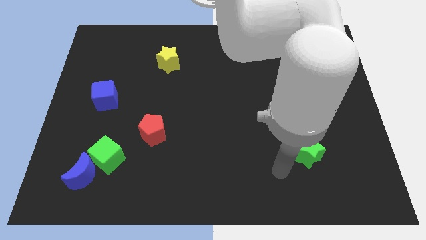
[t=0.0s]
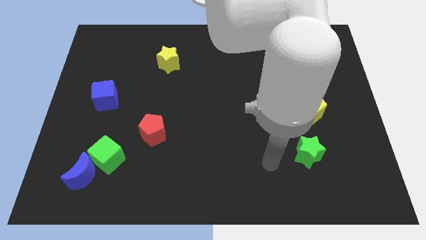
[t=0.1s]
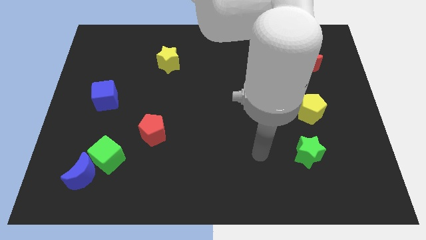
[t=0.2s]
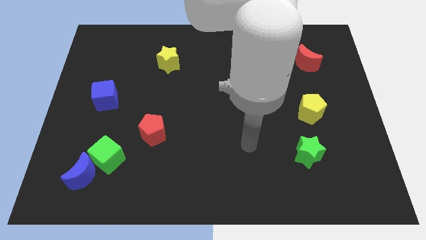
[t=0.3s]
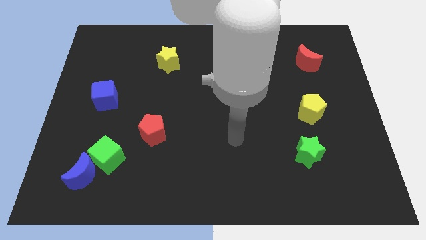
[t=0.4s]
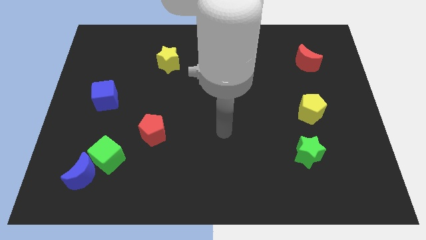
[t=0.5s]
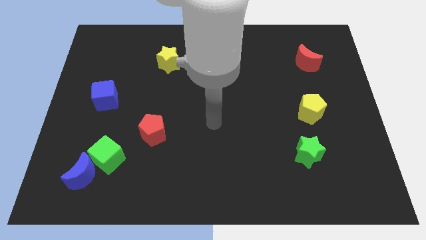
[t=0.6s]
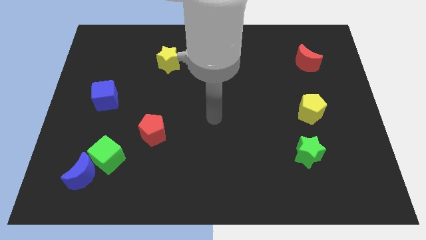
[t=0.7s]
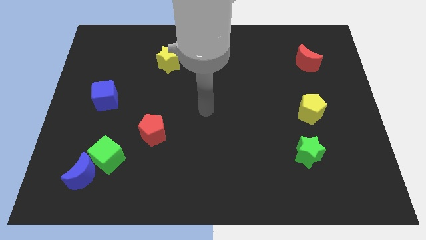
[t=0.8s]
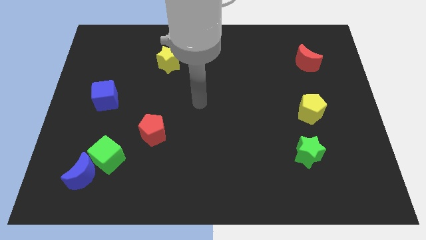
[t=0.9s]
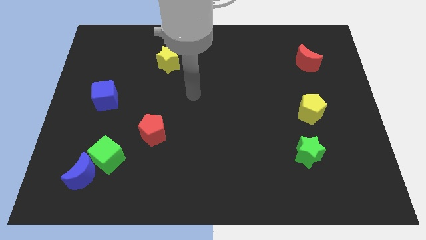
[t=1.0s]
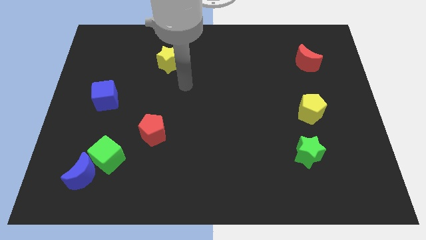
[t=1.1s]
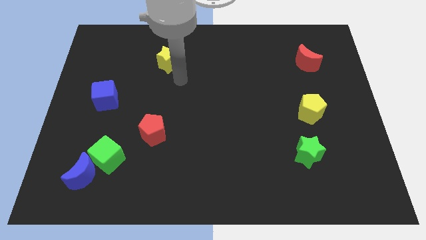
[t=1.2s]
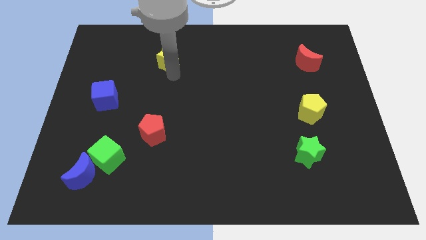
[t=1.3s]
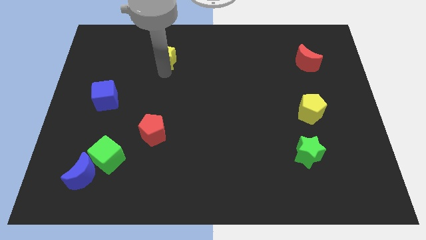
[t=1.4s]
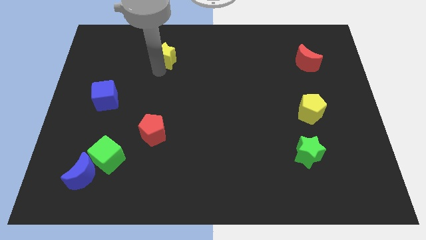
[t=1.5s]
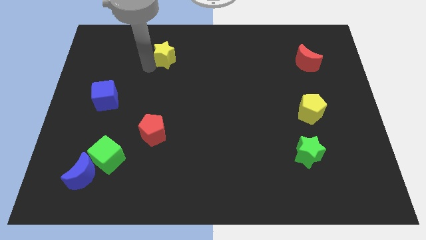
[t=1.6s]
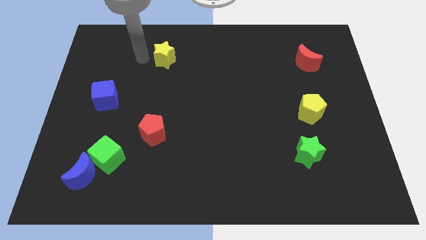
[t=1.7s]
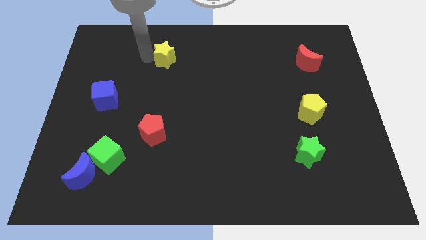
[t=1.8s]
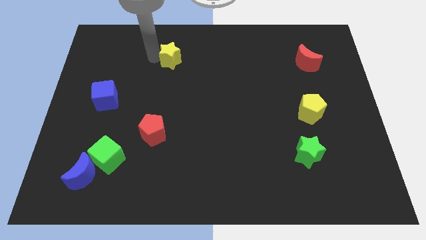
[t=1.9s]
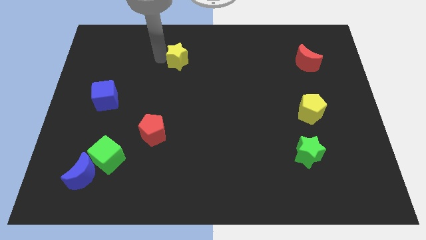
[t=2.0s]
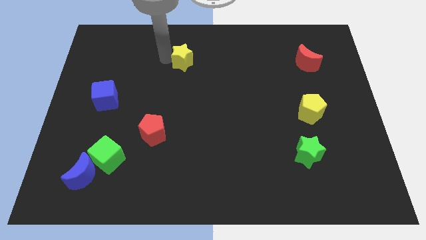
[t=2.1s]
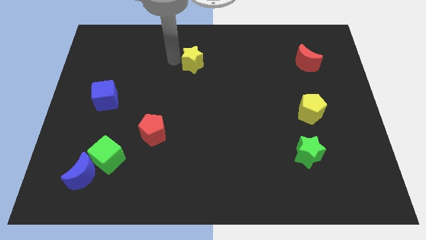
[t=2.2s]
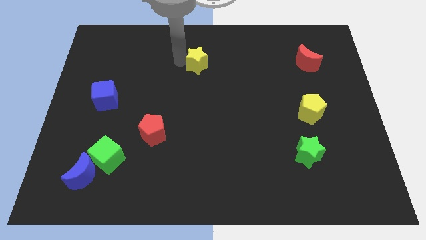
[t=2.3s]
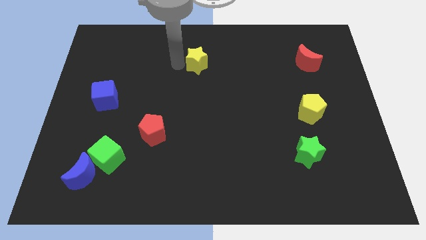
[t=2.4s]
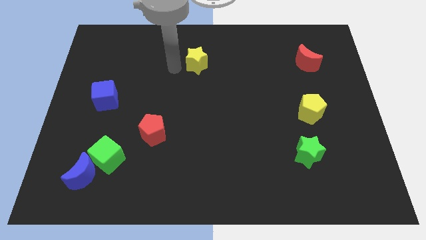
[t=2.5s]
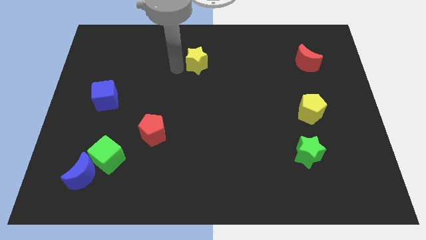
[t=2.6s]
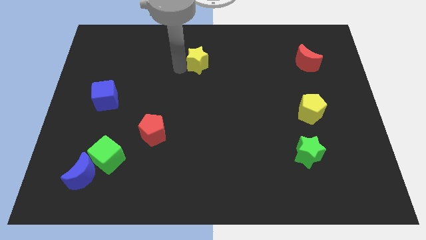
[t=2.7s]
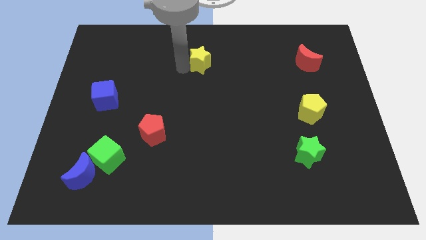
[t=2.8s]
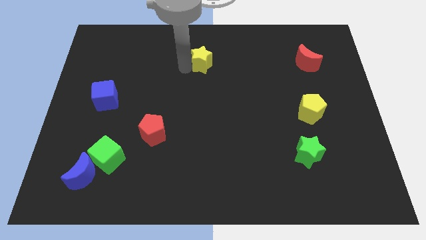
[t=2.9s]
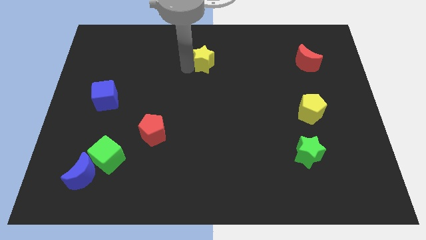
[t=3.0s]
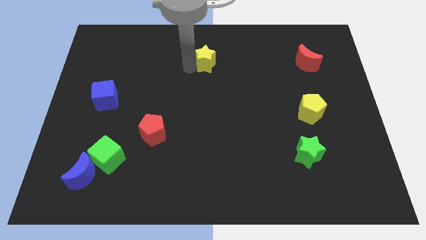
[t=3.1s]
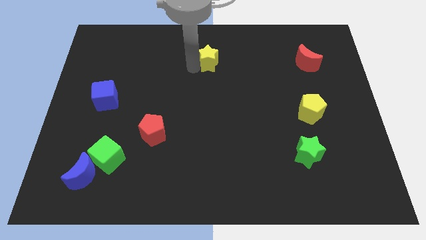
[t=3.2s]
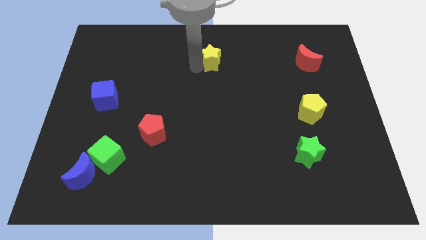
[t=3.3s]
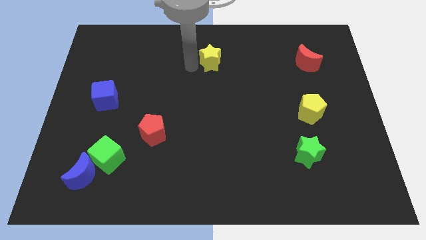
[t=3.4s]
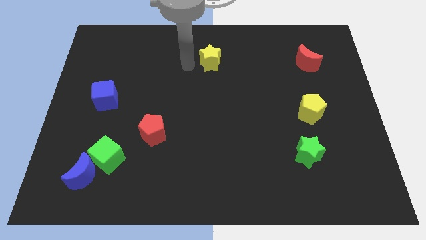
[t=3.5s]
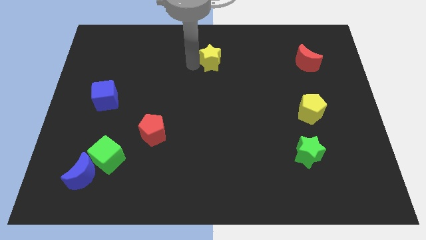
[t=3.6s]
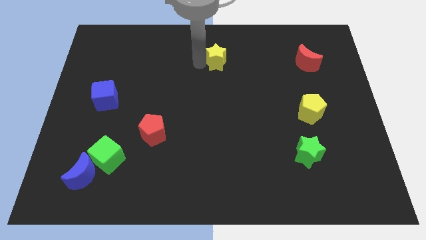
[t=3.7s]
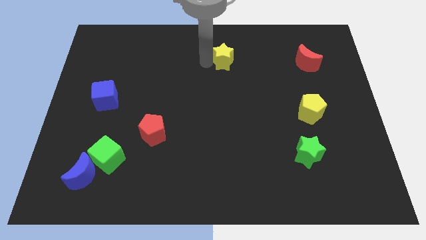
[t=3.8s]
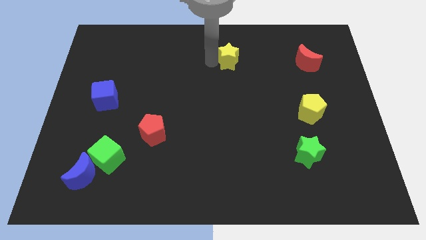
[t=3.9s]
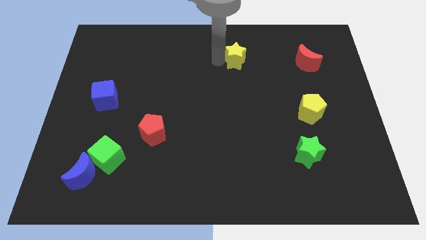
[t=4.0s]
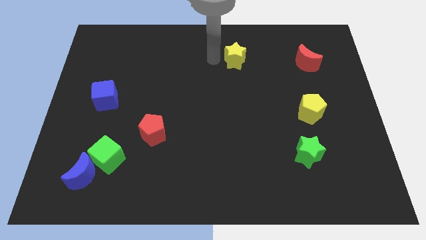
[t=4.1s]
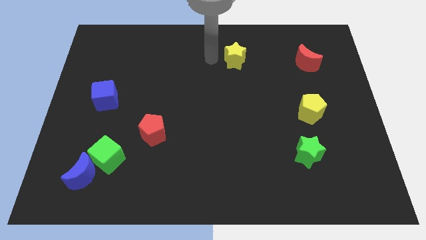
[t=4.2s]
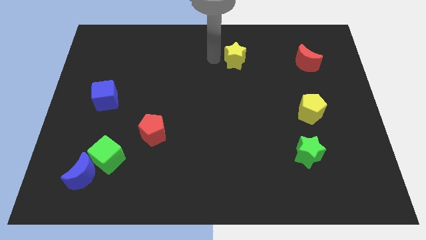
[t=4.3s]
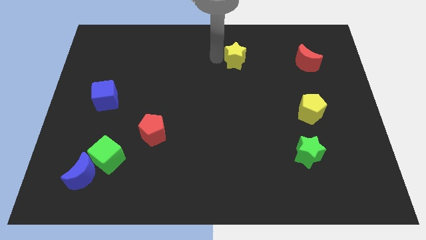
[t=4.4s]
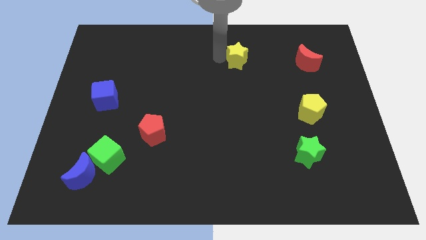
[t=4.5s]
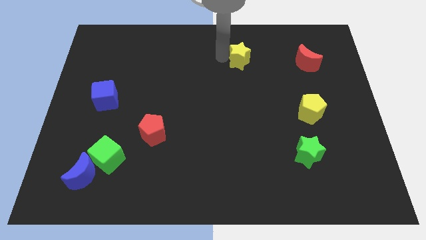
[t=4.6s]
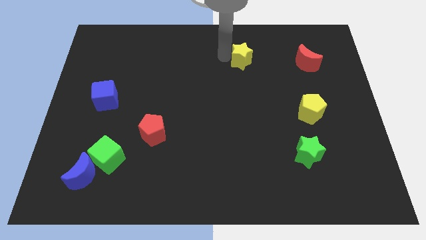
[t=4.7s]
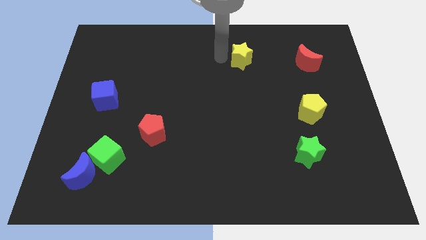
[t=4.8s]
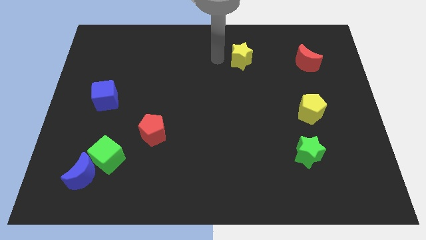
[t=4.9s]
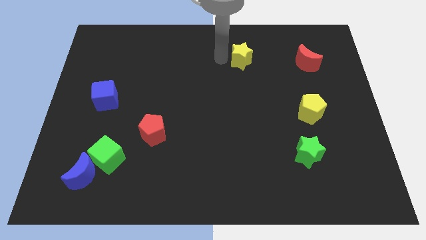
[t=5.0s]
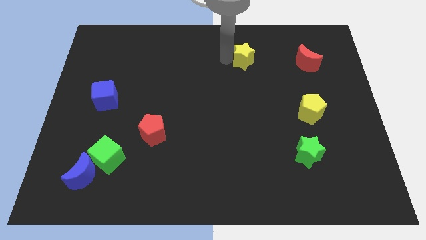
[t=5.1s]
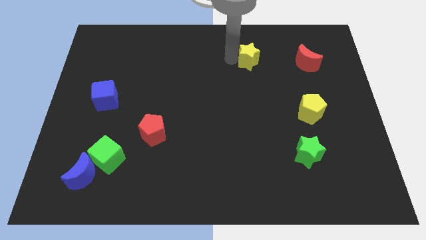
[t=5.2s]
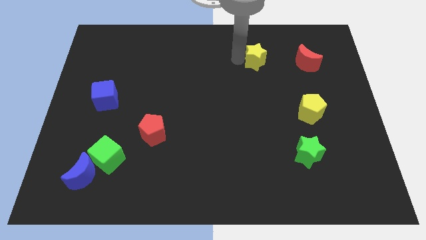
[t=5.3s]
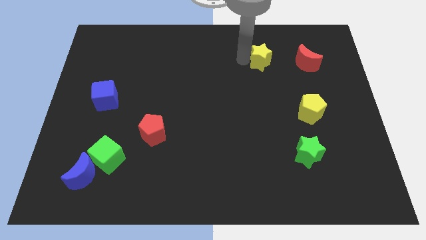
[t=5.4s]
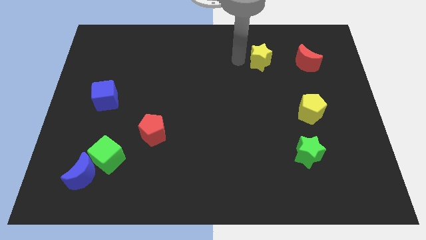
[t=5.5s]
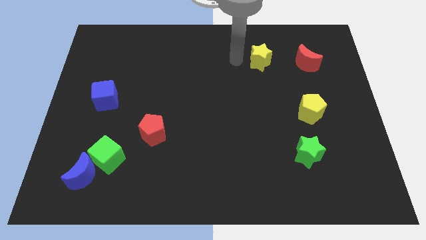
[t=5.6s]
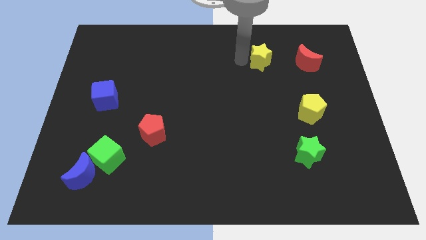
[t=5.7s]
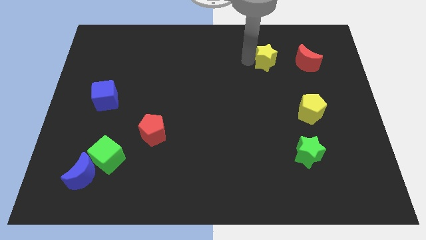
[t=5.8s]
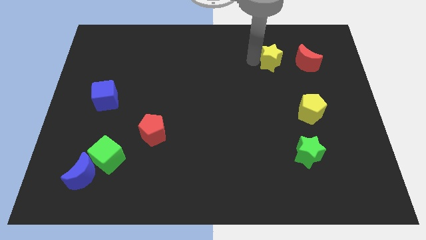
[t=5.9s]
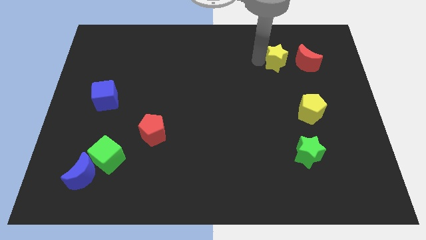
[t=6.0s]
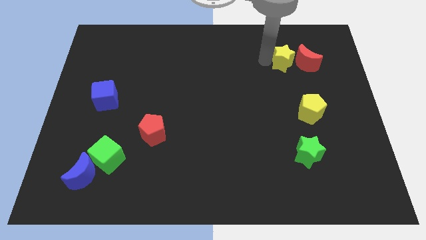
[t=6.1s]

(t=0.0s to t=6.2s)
put the yellow star towards the red moon

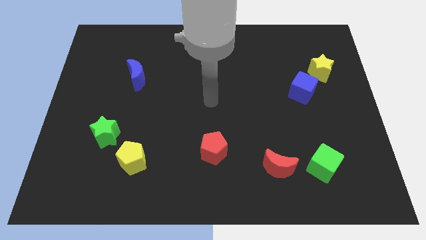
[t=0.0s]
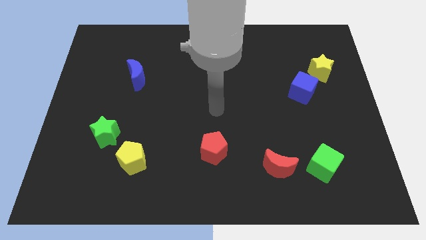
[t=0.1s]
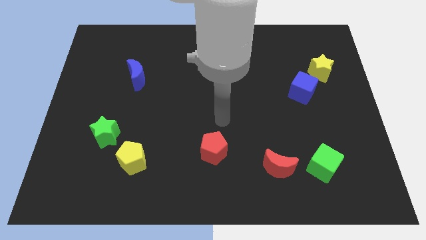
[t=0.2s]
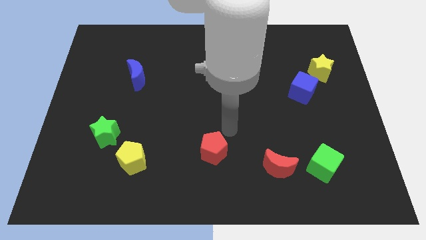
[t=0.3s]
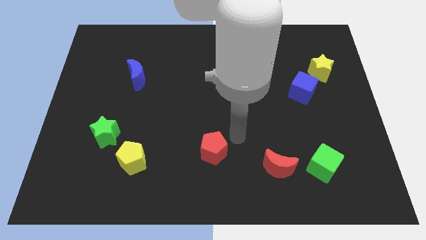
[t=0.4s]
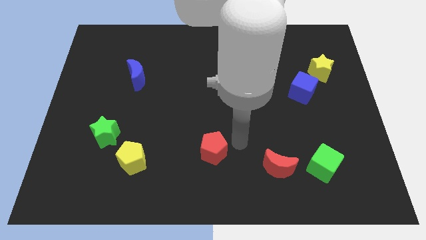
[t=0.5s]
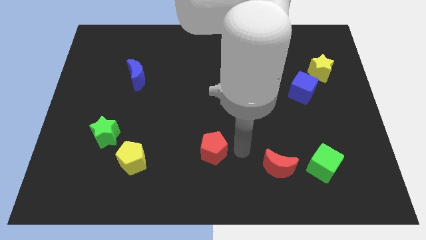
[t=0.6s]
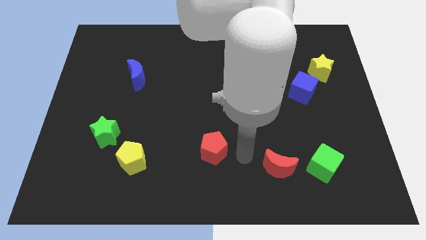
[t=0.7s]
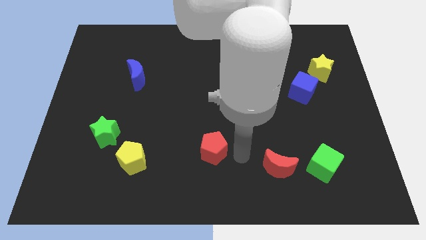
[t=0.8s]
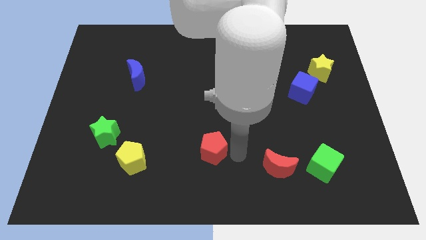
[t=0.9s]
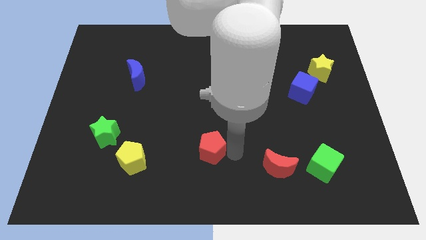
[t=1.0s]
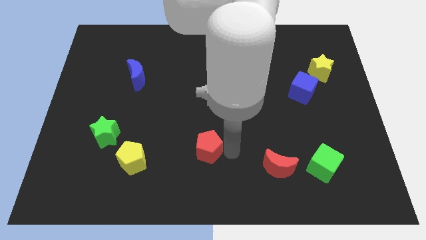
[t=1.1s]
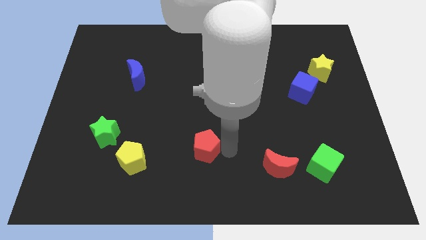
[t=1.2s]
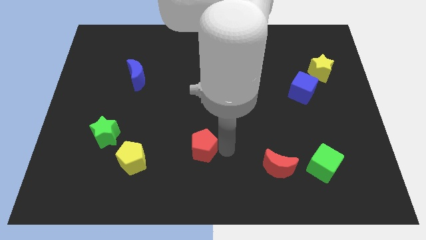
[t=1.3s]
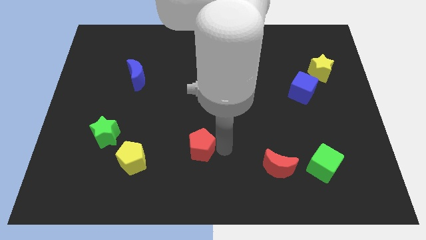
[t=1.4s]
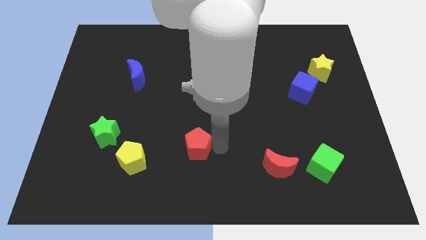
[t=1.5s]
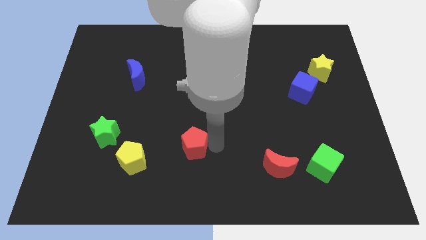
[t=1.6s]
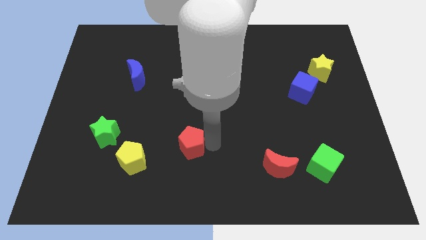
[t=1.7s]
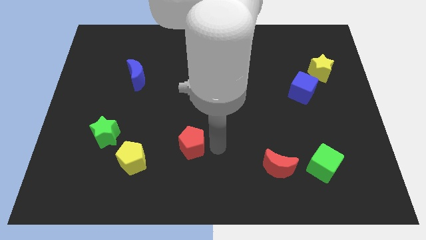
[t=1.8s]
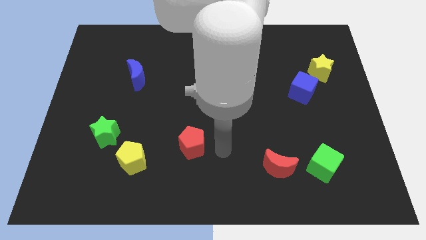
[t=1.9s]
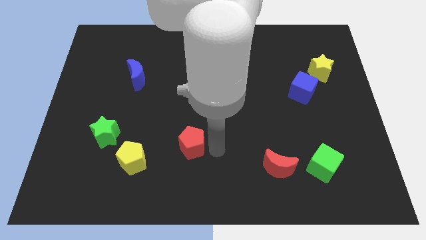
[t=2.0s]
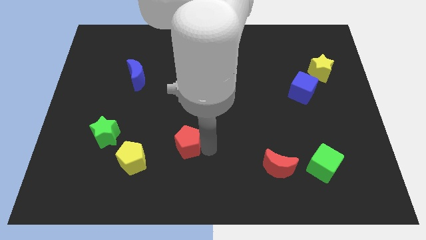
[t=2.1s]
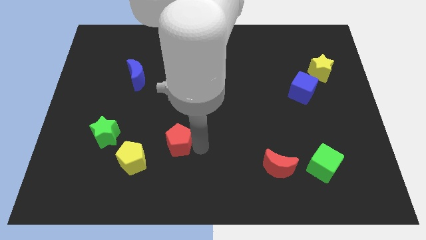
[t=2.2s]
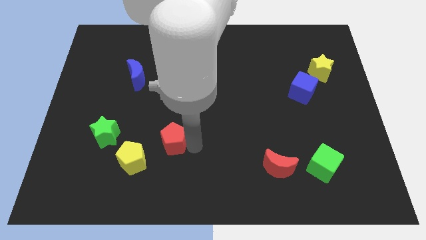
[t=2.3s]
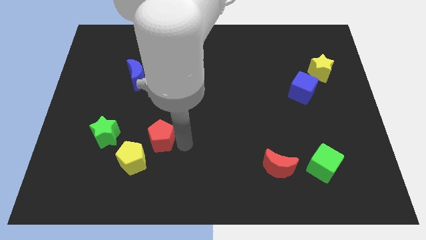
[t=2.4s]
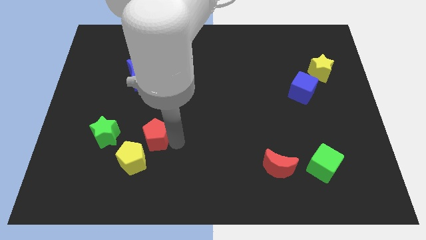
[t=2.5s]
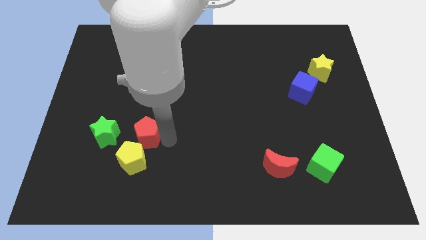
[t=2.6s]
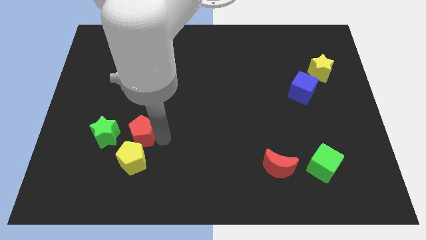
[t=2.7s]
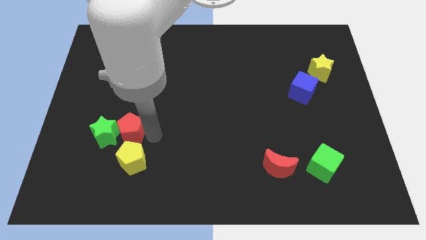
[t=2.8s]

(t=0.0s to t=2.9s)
put the red pentagon to the green star
